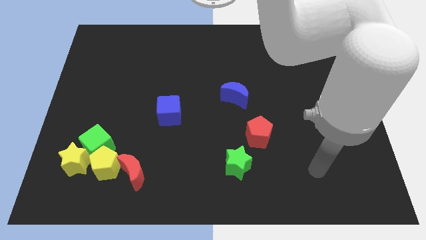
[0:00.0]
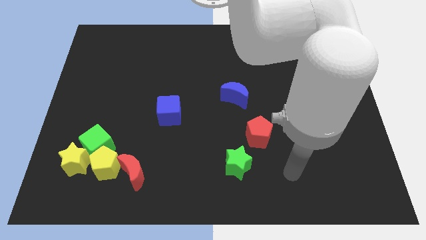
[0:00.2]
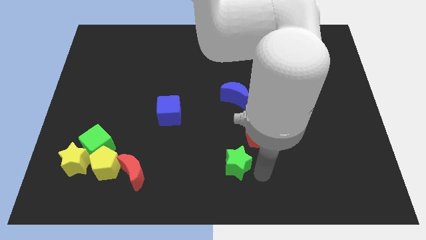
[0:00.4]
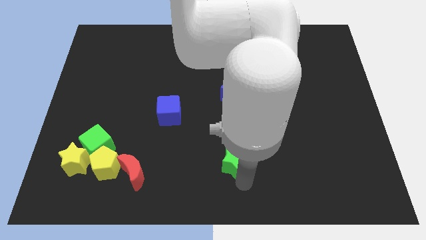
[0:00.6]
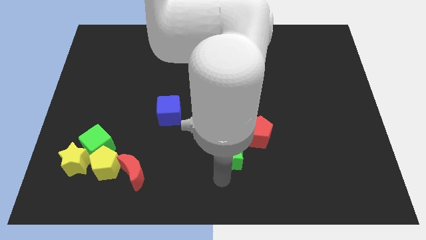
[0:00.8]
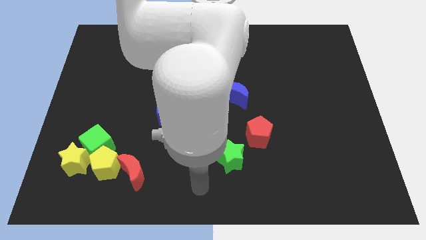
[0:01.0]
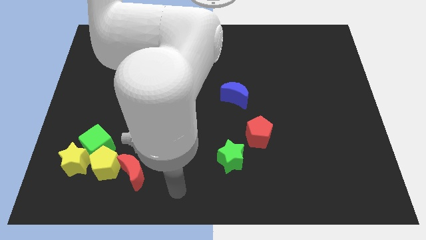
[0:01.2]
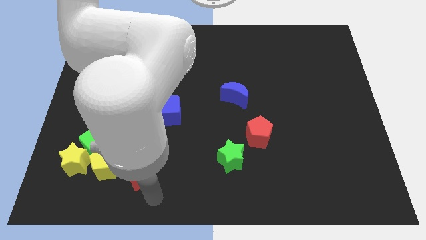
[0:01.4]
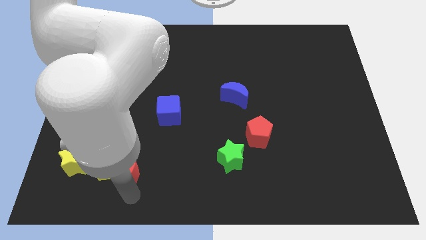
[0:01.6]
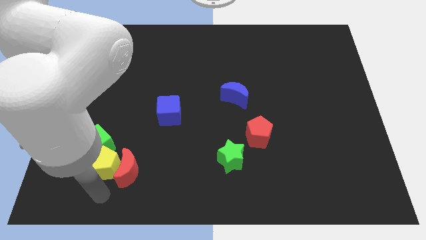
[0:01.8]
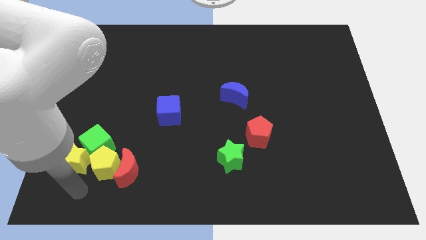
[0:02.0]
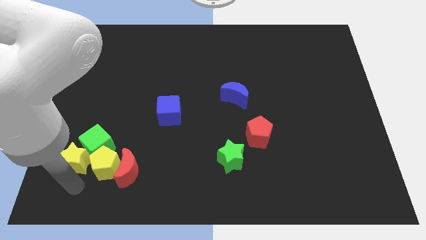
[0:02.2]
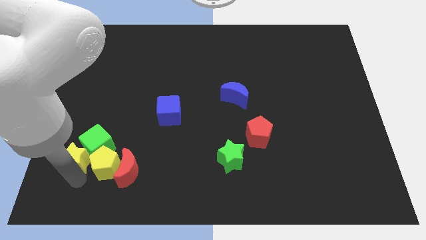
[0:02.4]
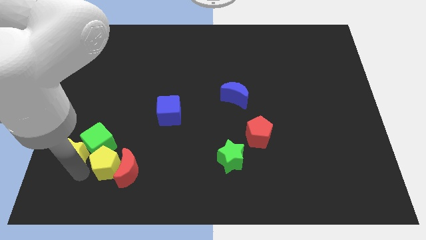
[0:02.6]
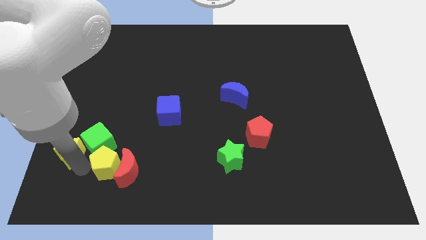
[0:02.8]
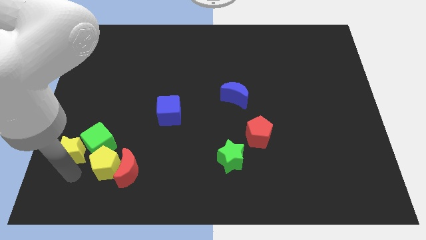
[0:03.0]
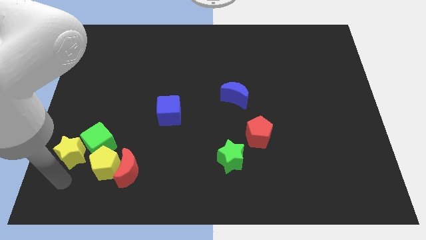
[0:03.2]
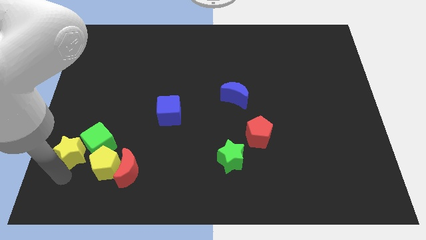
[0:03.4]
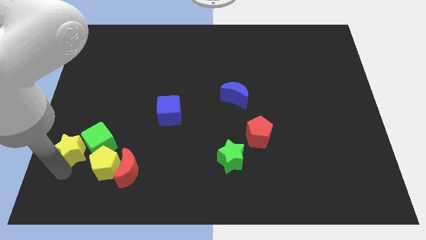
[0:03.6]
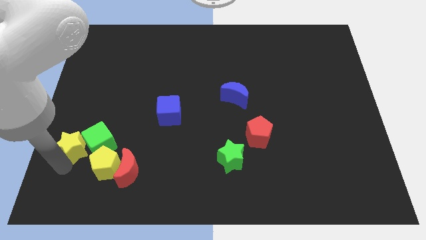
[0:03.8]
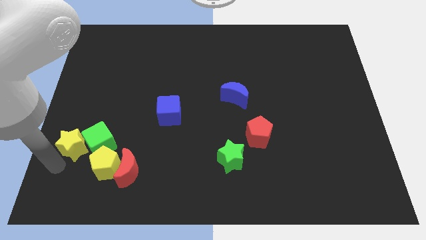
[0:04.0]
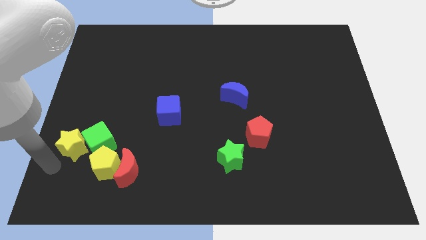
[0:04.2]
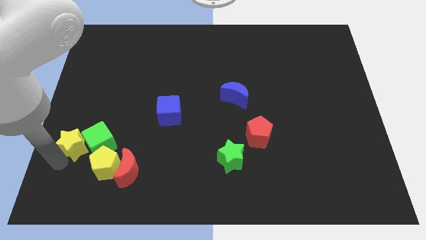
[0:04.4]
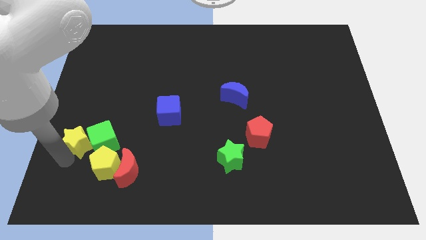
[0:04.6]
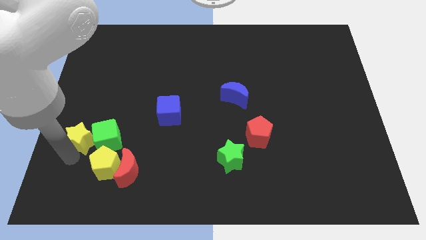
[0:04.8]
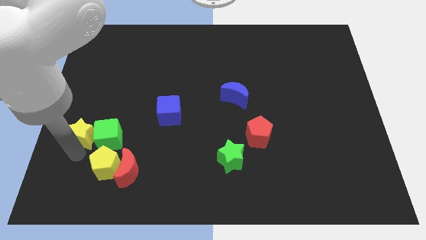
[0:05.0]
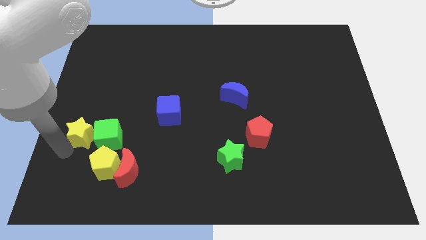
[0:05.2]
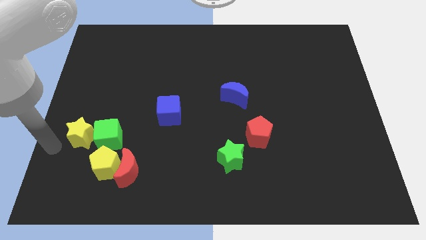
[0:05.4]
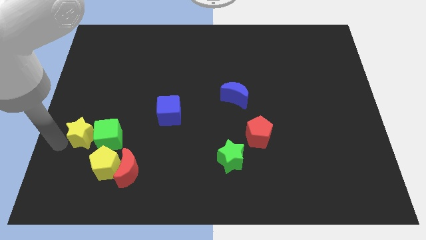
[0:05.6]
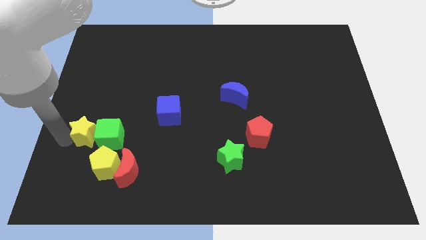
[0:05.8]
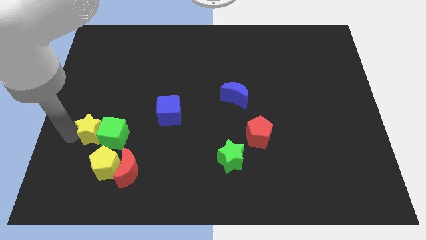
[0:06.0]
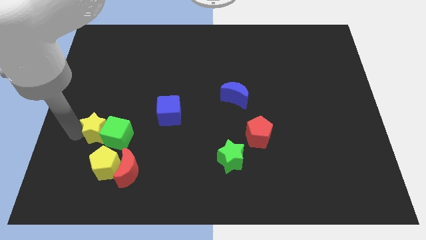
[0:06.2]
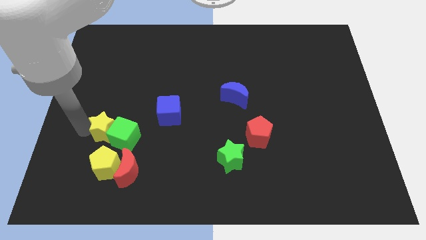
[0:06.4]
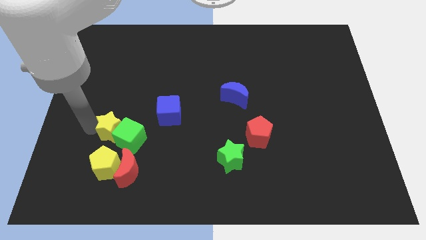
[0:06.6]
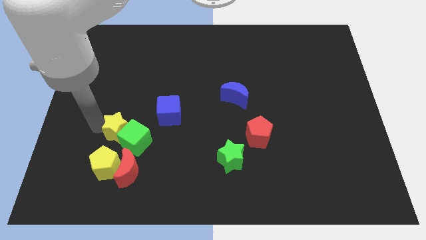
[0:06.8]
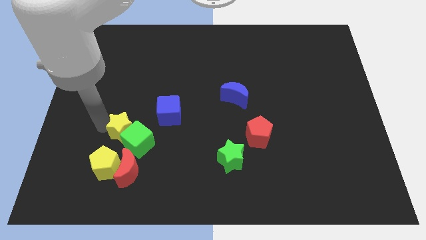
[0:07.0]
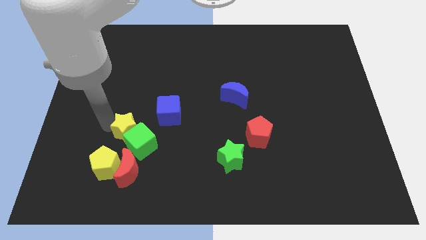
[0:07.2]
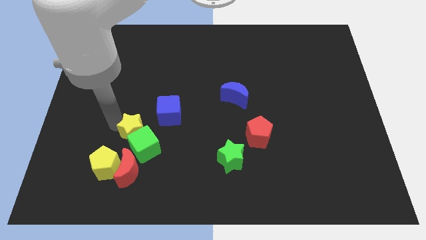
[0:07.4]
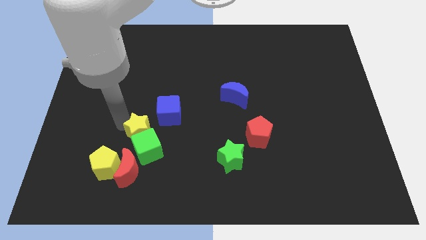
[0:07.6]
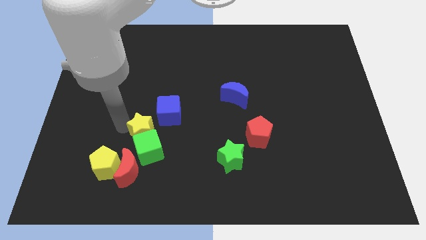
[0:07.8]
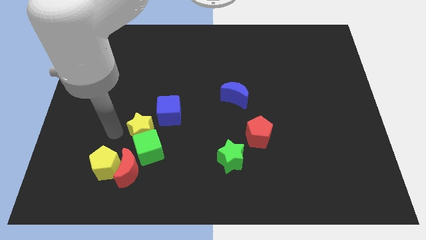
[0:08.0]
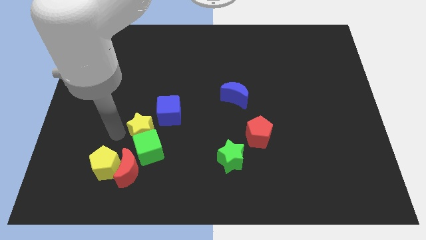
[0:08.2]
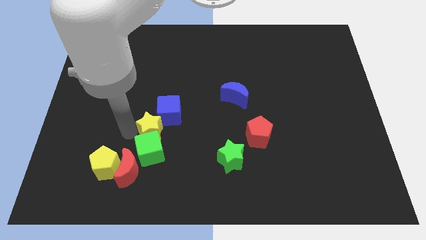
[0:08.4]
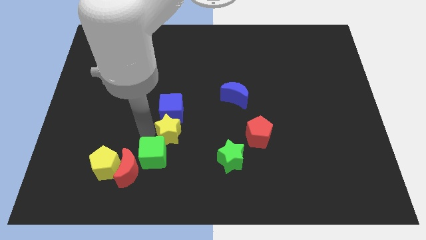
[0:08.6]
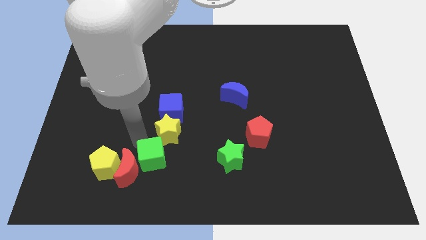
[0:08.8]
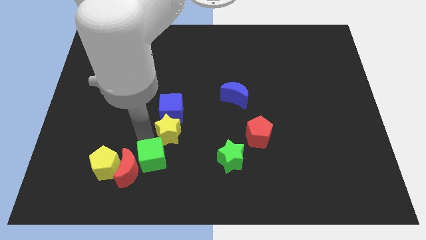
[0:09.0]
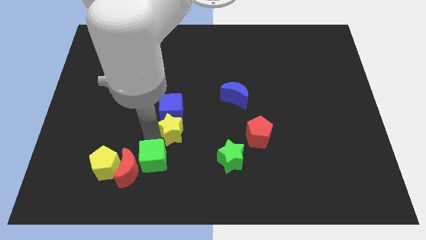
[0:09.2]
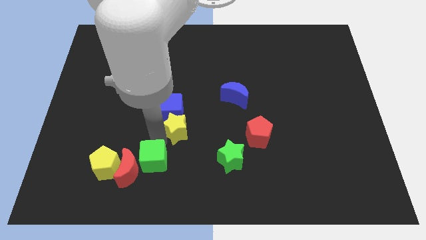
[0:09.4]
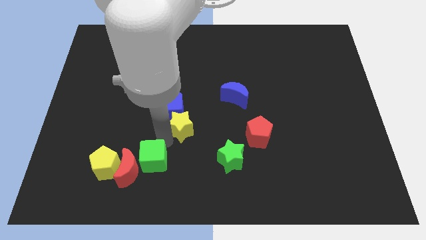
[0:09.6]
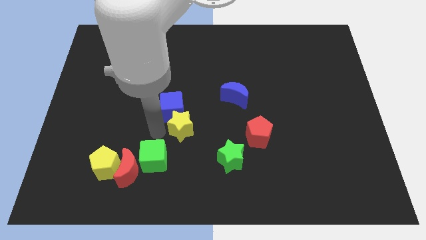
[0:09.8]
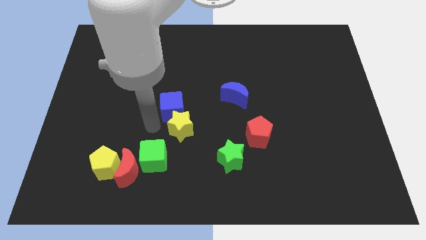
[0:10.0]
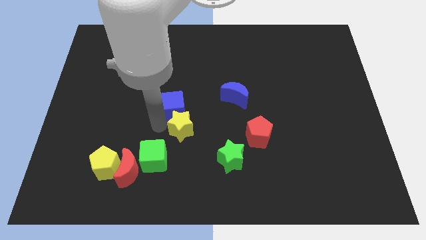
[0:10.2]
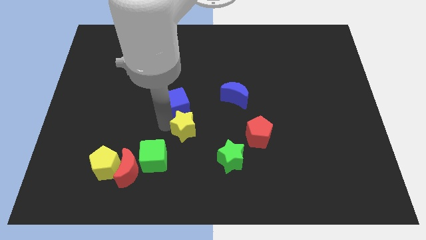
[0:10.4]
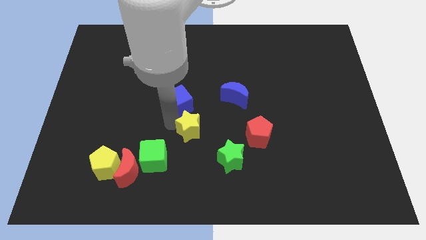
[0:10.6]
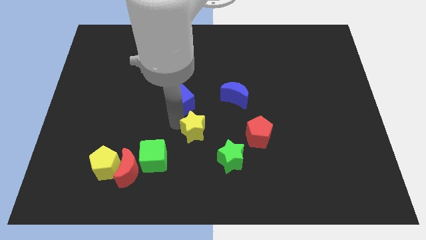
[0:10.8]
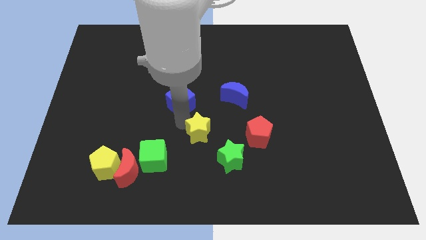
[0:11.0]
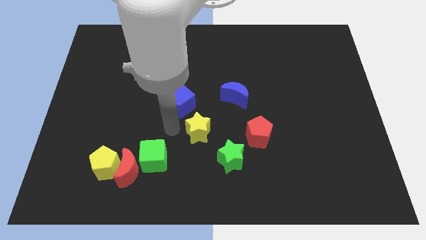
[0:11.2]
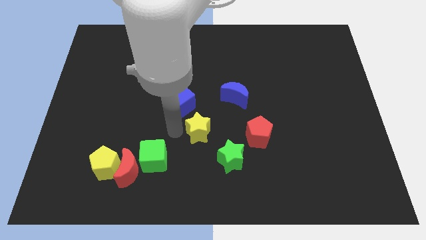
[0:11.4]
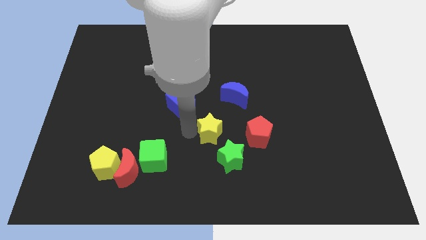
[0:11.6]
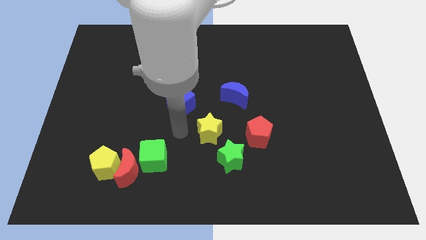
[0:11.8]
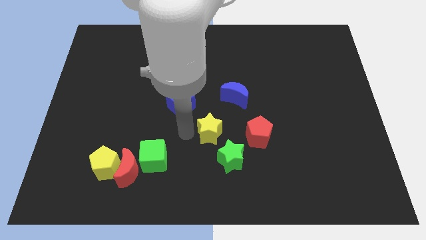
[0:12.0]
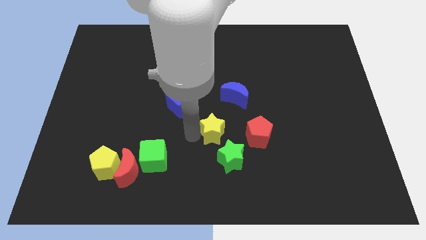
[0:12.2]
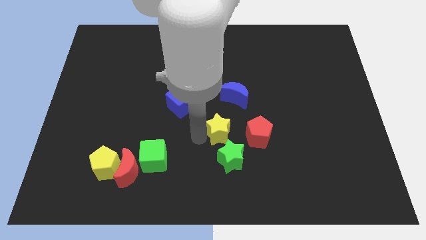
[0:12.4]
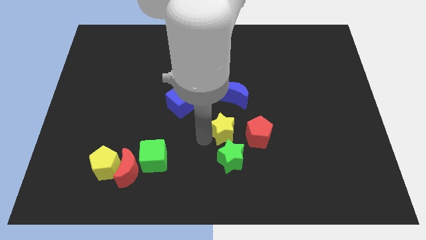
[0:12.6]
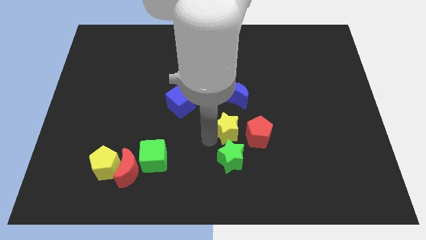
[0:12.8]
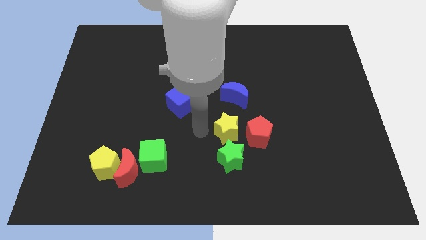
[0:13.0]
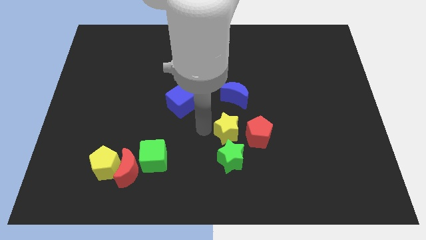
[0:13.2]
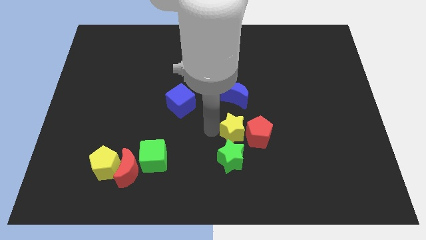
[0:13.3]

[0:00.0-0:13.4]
slide the yellow star to the red pentagon

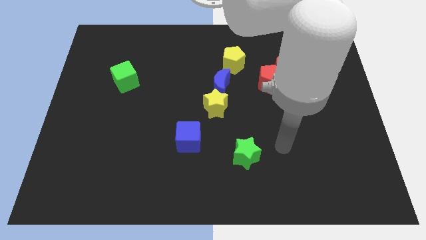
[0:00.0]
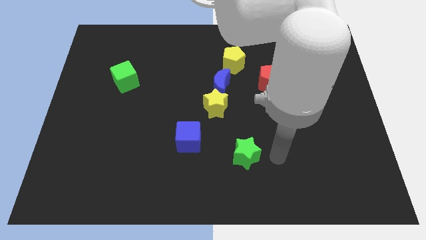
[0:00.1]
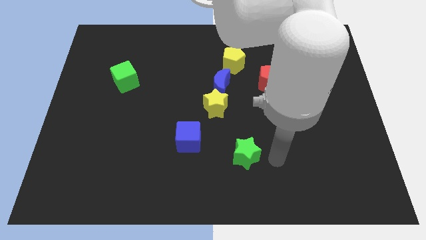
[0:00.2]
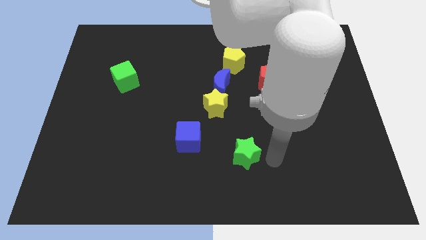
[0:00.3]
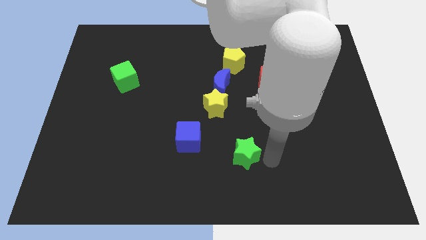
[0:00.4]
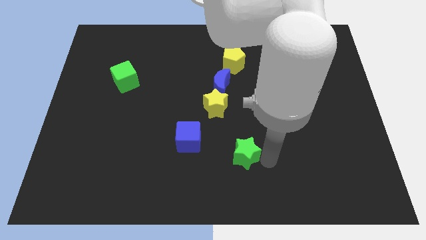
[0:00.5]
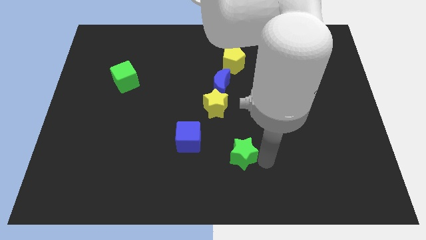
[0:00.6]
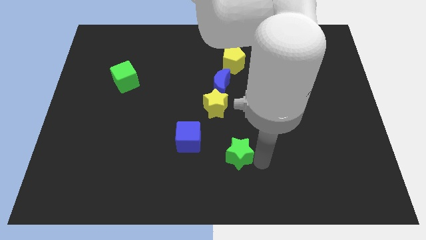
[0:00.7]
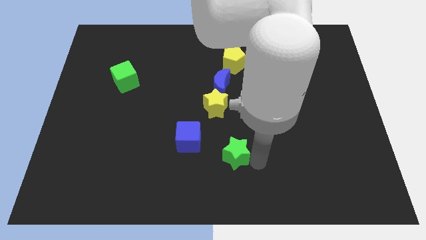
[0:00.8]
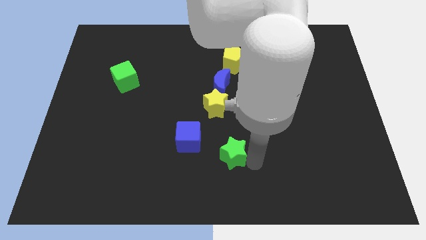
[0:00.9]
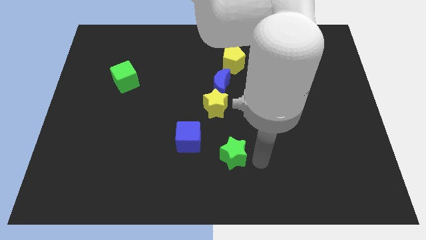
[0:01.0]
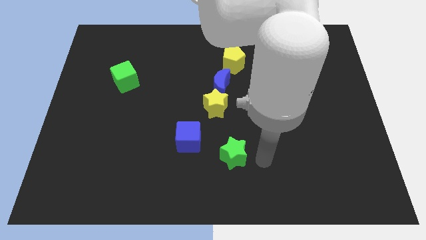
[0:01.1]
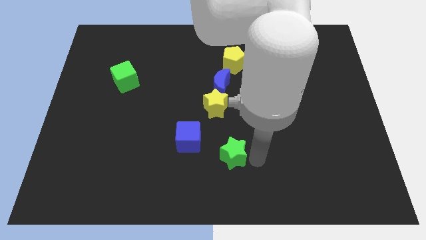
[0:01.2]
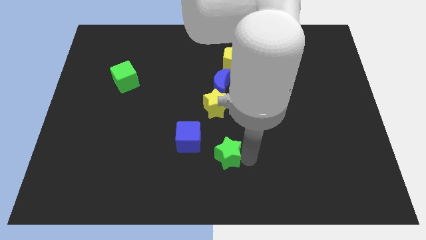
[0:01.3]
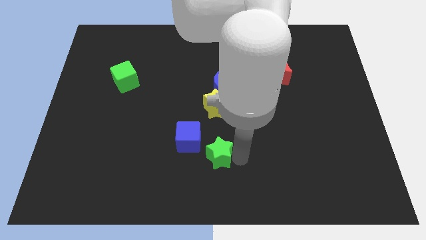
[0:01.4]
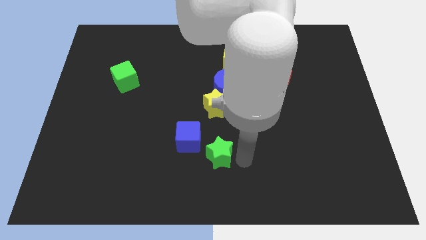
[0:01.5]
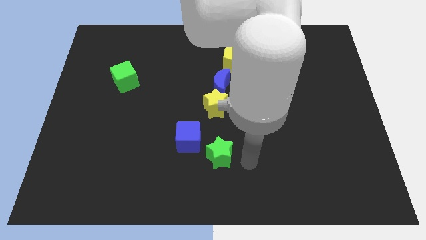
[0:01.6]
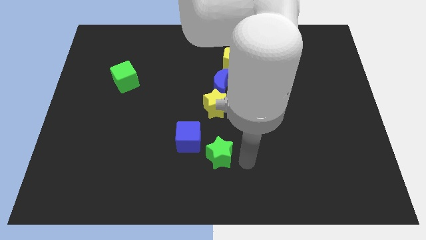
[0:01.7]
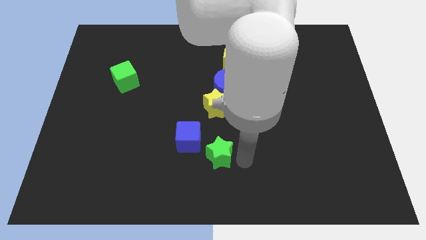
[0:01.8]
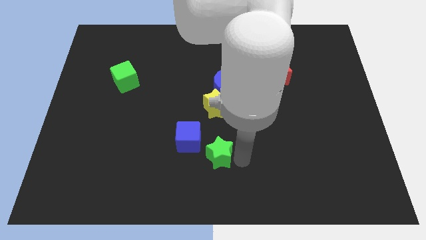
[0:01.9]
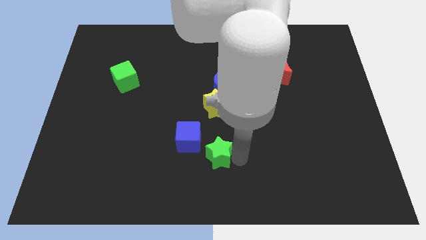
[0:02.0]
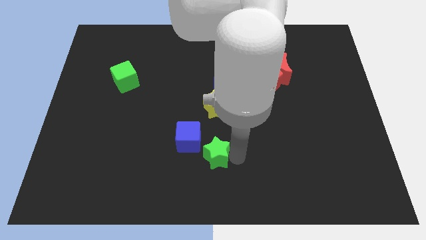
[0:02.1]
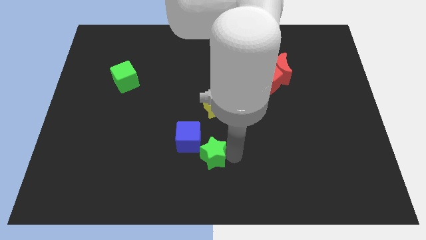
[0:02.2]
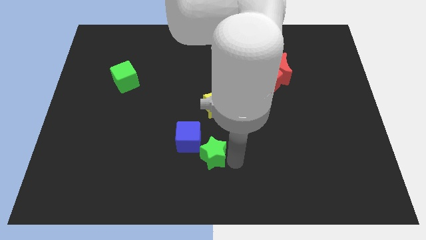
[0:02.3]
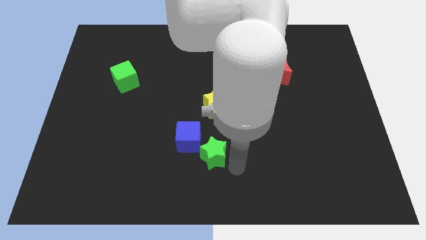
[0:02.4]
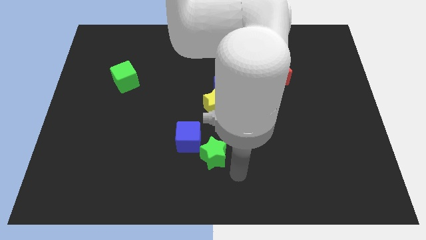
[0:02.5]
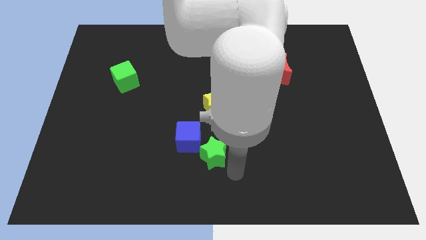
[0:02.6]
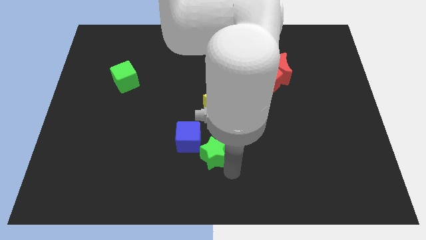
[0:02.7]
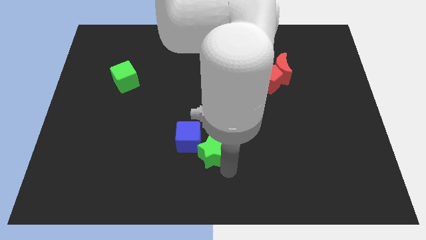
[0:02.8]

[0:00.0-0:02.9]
push the green star to the blue cube
